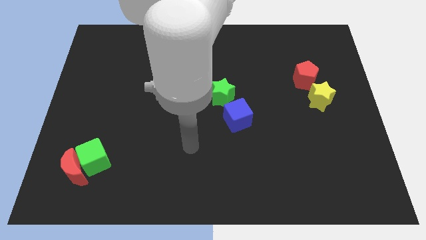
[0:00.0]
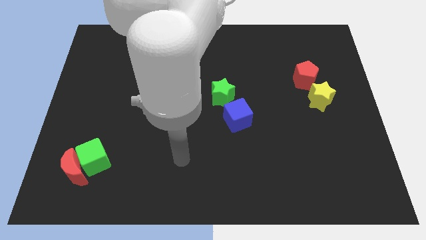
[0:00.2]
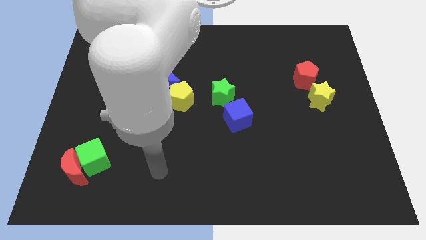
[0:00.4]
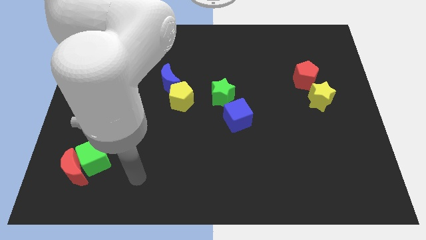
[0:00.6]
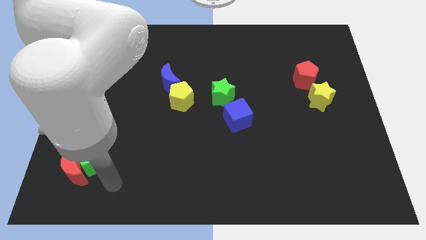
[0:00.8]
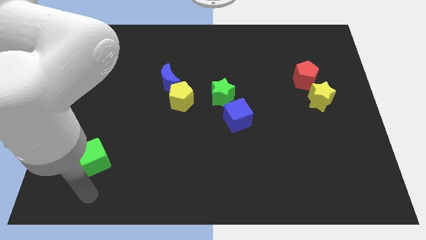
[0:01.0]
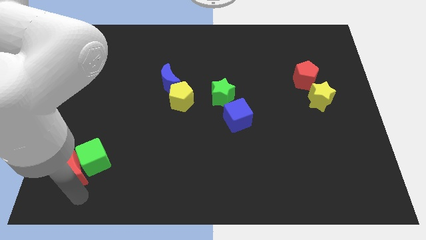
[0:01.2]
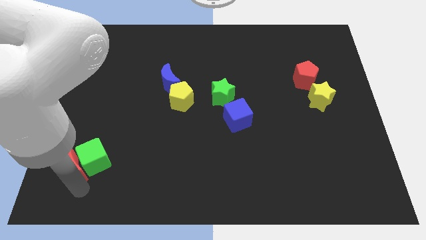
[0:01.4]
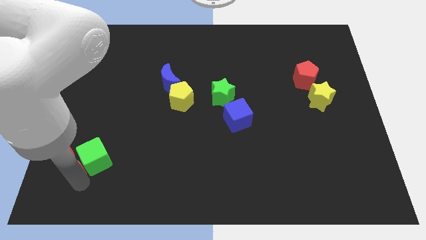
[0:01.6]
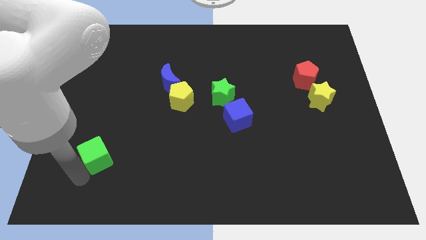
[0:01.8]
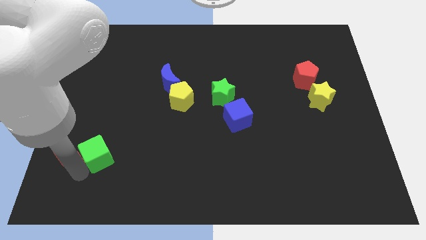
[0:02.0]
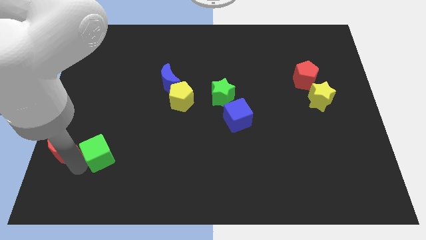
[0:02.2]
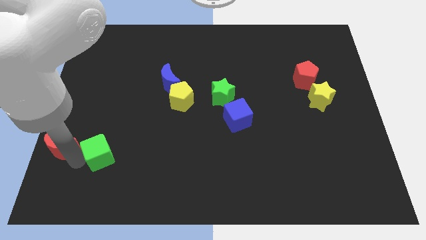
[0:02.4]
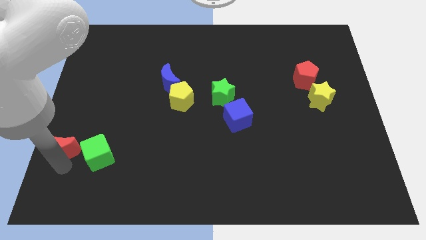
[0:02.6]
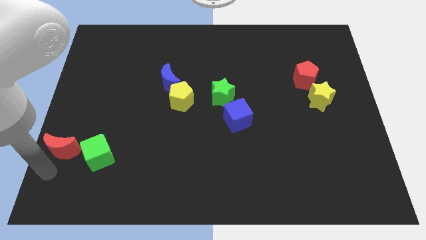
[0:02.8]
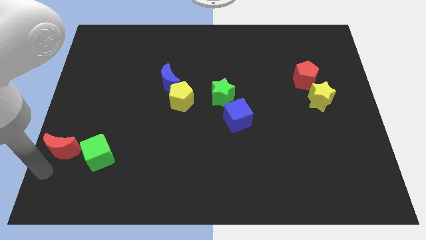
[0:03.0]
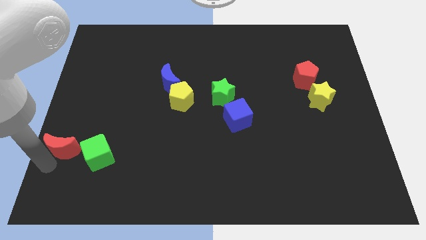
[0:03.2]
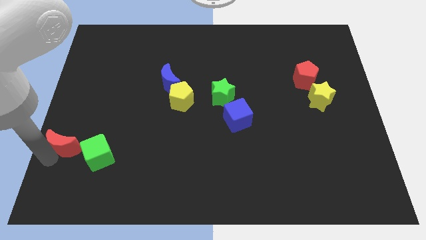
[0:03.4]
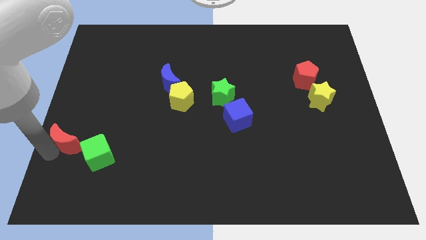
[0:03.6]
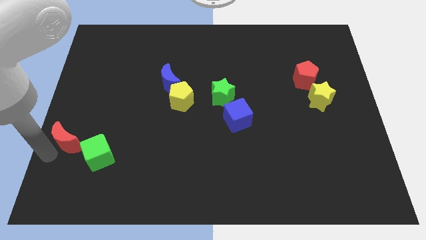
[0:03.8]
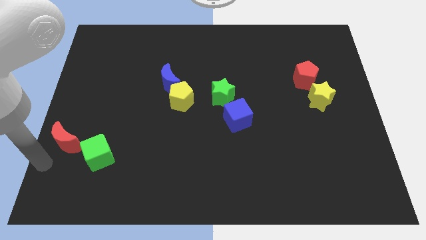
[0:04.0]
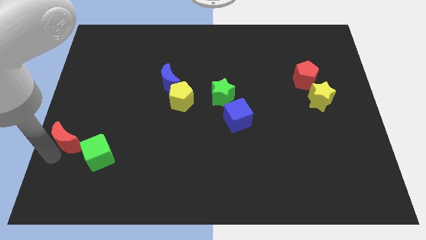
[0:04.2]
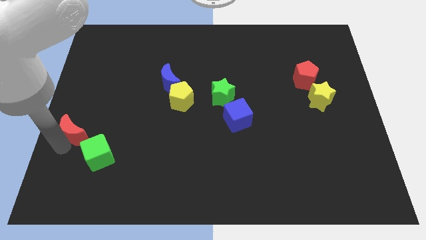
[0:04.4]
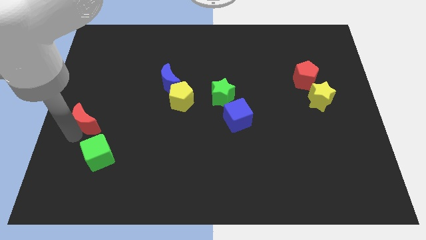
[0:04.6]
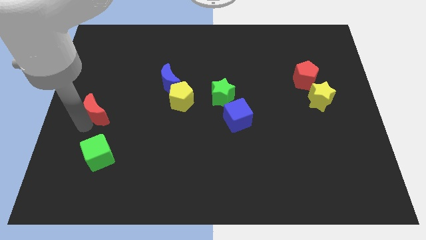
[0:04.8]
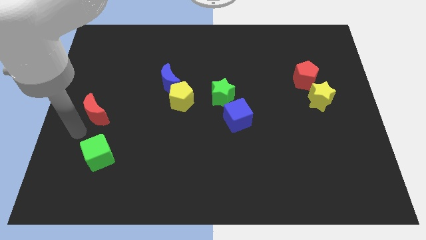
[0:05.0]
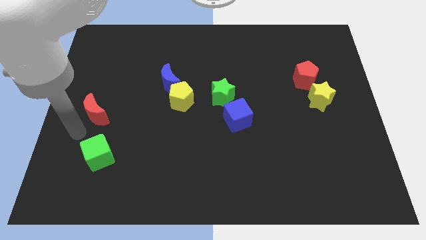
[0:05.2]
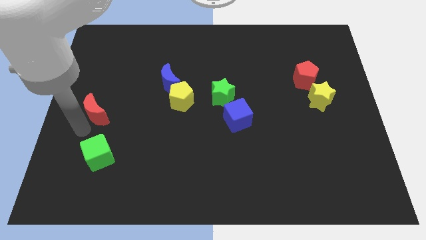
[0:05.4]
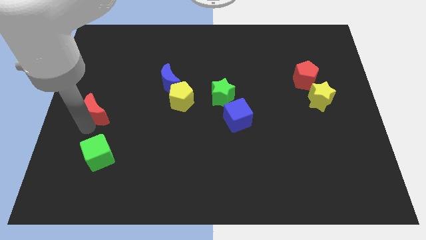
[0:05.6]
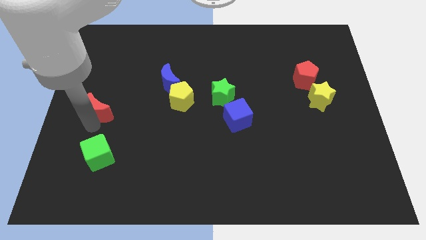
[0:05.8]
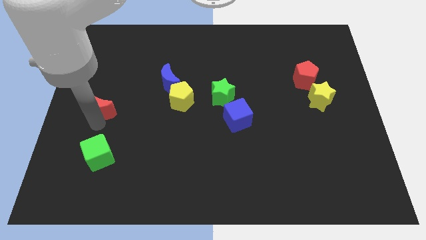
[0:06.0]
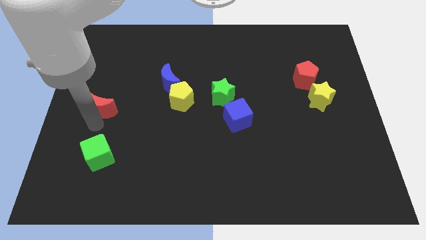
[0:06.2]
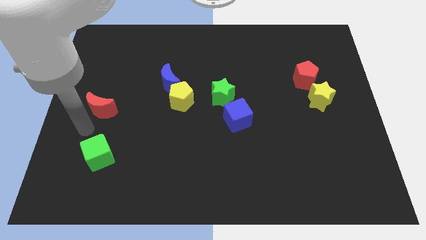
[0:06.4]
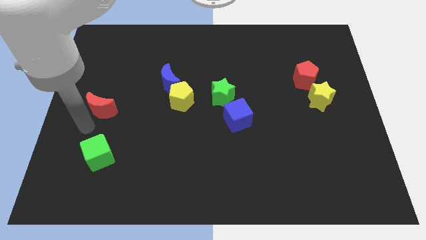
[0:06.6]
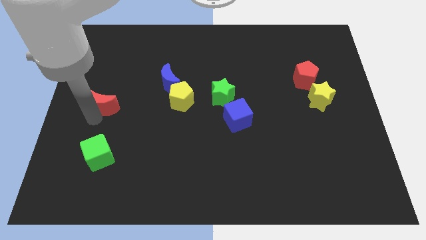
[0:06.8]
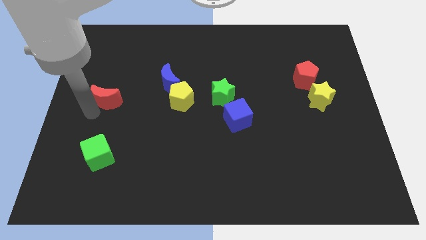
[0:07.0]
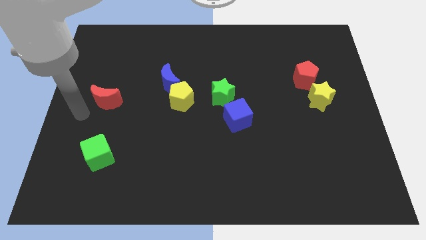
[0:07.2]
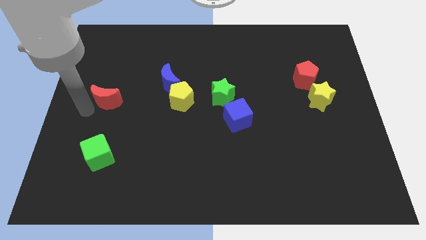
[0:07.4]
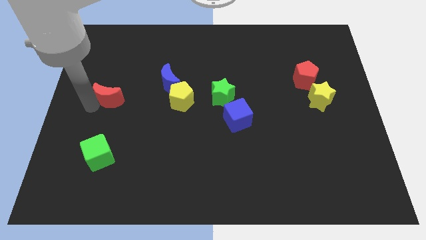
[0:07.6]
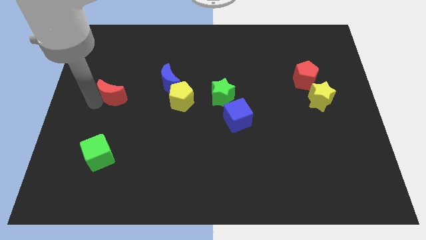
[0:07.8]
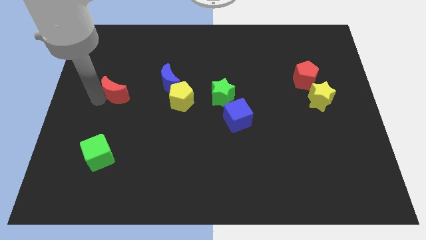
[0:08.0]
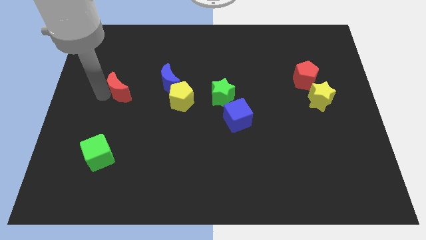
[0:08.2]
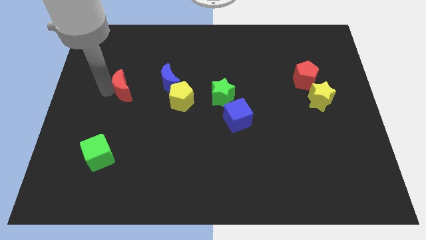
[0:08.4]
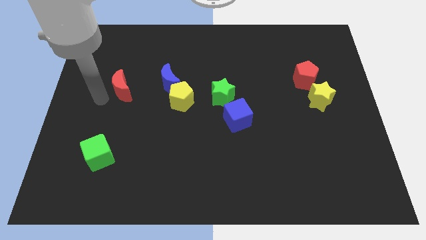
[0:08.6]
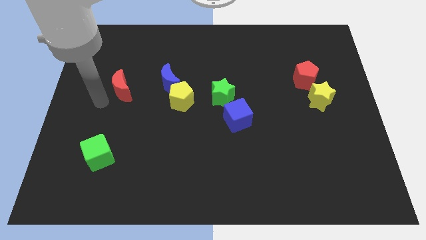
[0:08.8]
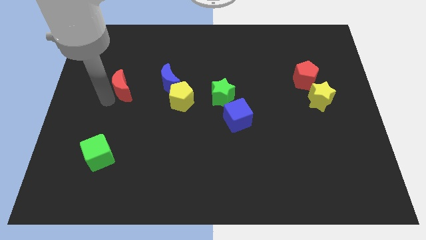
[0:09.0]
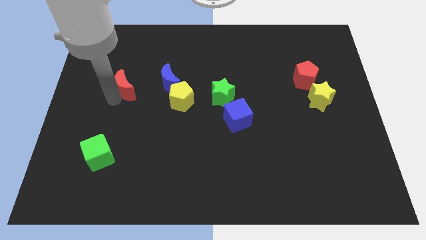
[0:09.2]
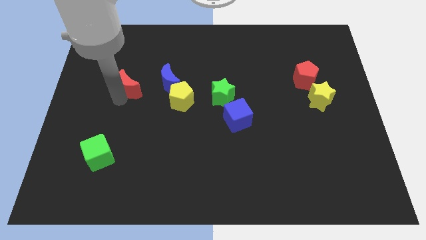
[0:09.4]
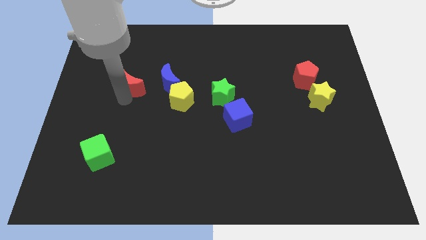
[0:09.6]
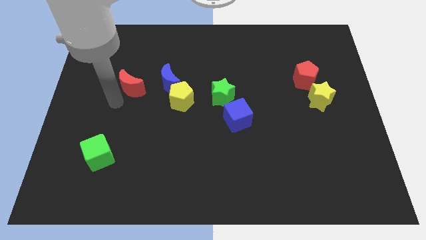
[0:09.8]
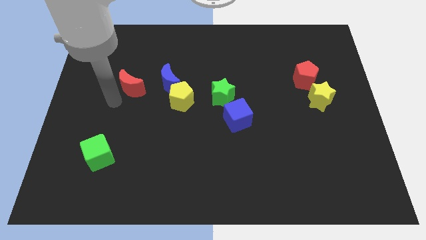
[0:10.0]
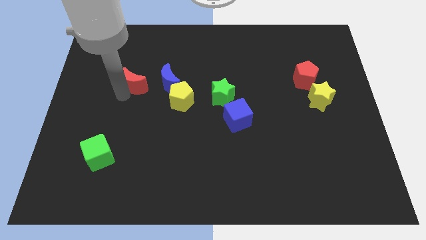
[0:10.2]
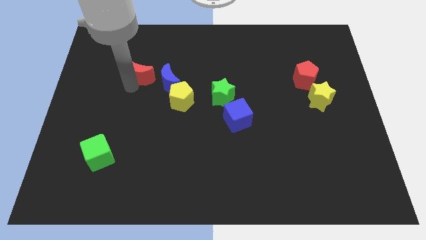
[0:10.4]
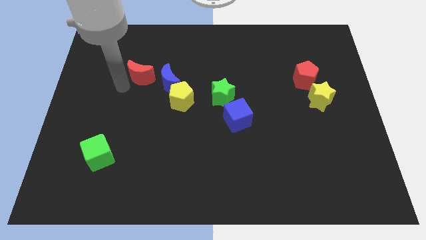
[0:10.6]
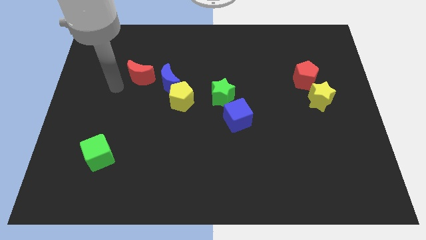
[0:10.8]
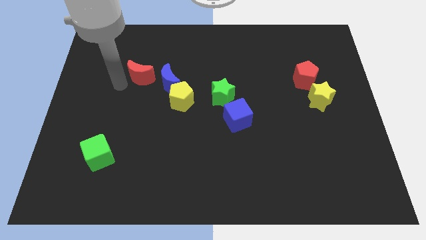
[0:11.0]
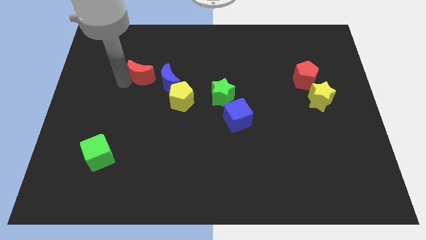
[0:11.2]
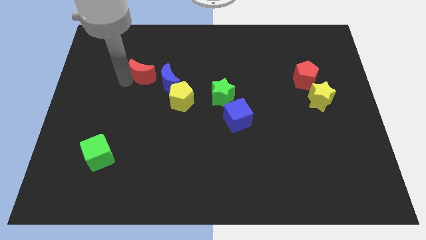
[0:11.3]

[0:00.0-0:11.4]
move the red moon upwards and right

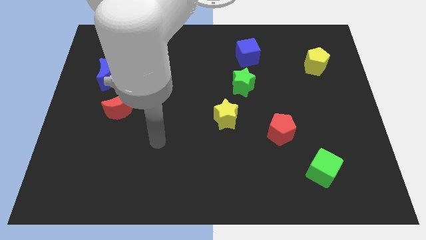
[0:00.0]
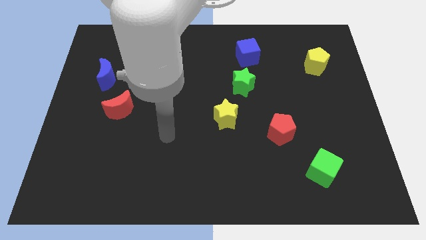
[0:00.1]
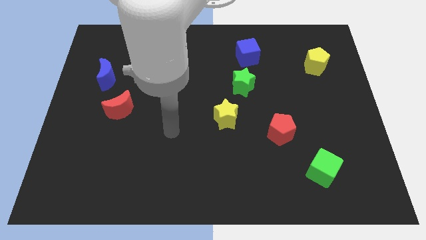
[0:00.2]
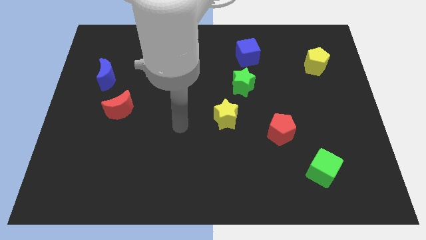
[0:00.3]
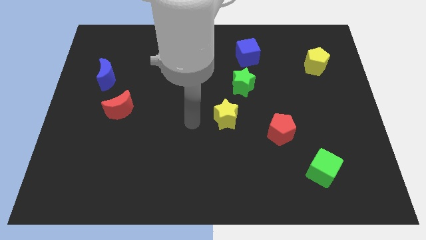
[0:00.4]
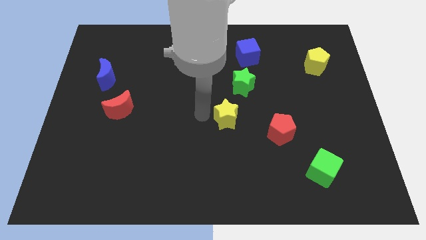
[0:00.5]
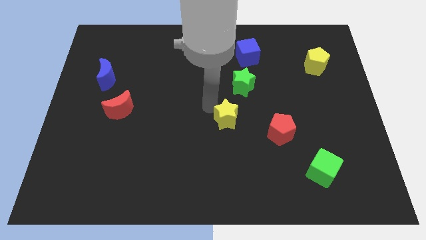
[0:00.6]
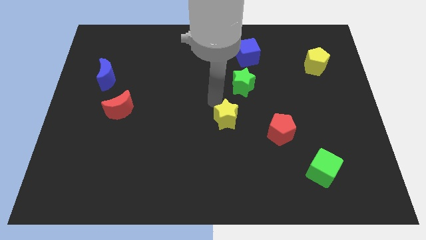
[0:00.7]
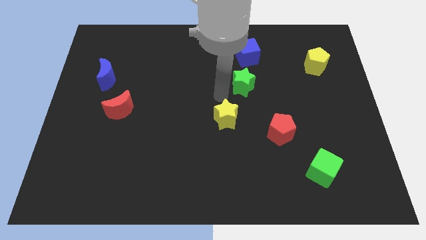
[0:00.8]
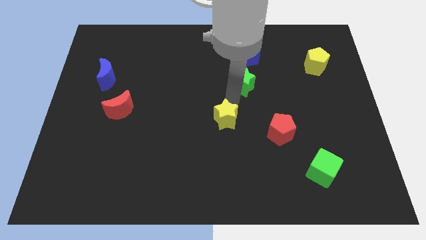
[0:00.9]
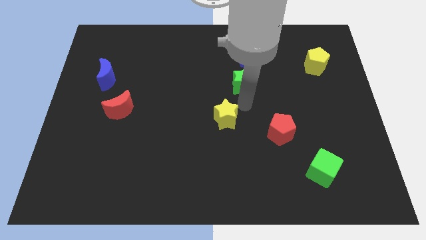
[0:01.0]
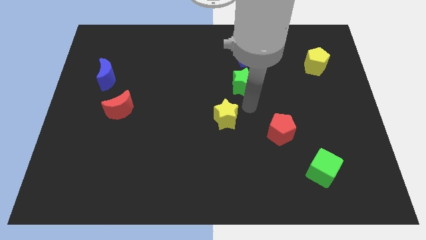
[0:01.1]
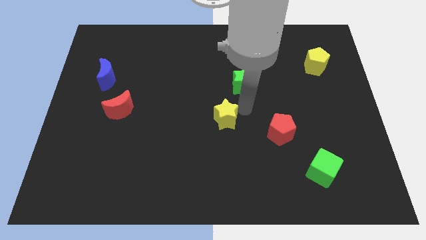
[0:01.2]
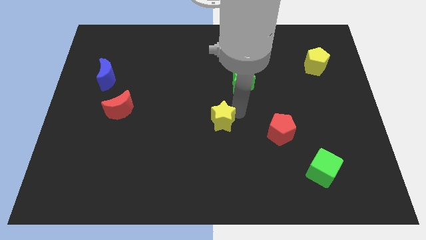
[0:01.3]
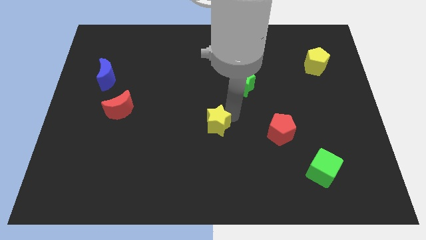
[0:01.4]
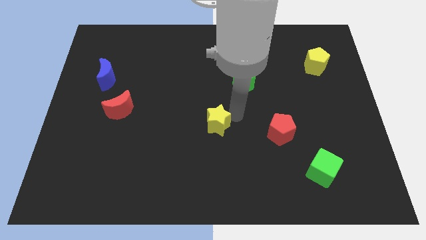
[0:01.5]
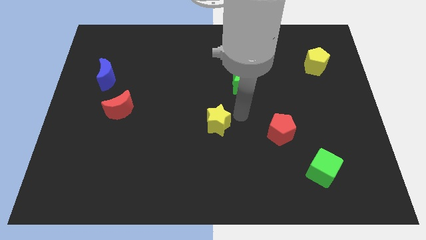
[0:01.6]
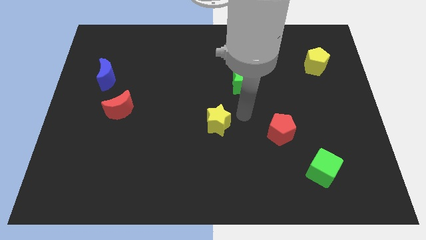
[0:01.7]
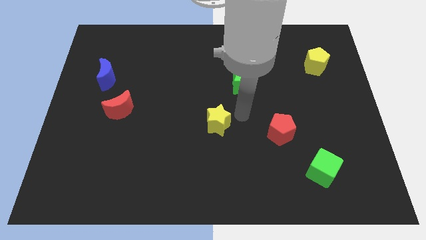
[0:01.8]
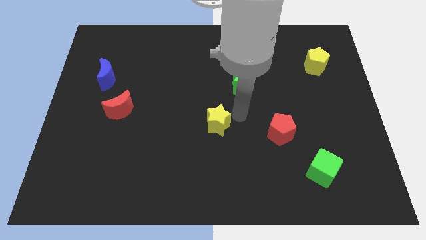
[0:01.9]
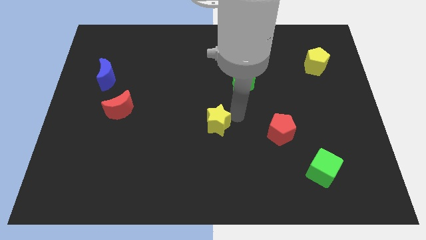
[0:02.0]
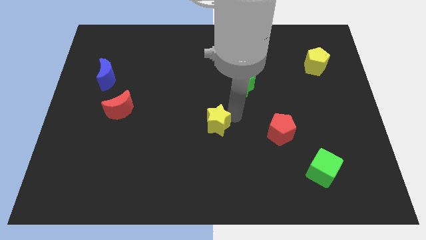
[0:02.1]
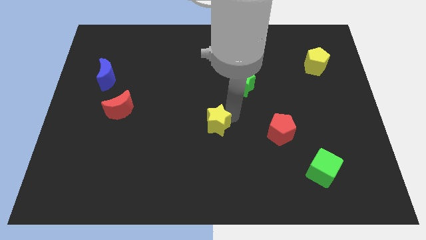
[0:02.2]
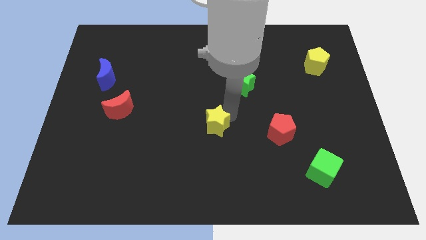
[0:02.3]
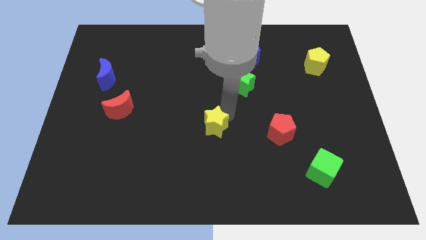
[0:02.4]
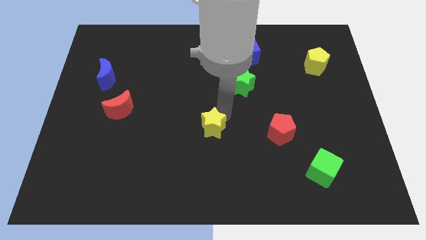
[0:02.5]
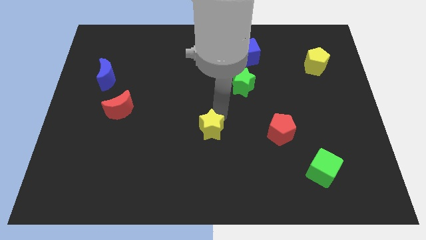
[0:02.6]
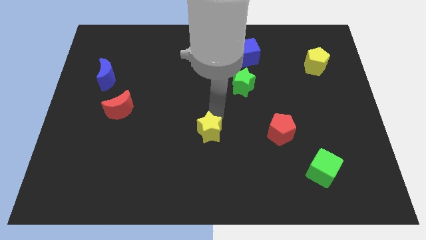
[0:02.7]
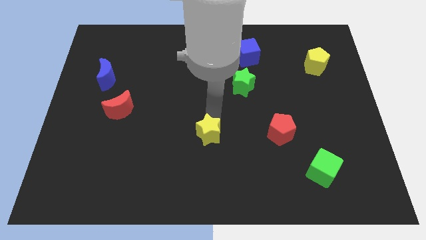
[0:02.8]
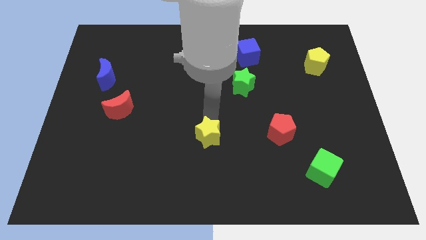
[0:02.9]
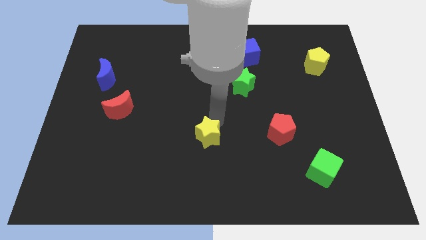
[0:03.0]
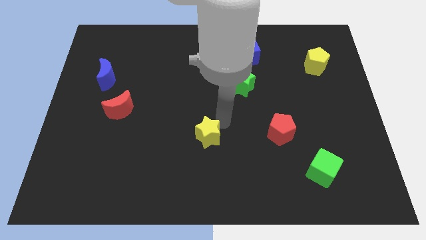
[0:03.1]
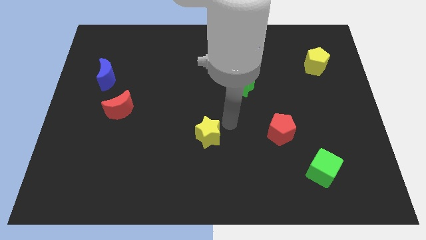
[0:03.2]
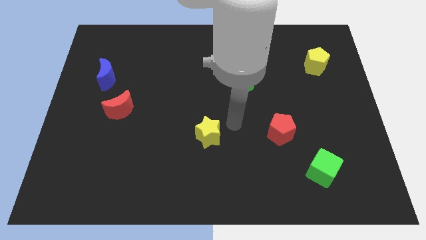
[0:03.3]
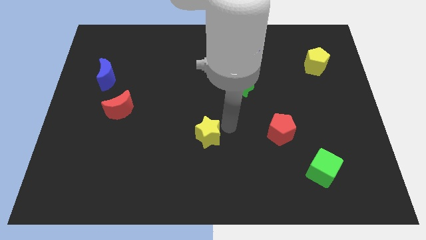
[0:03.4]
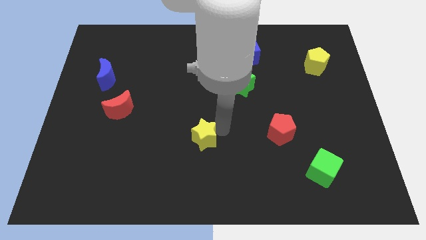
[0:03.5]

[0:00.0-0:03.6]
move the yellow star a little bit downwards and then left
